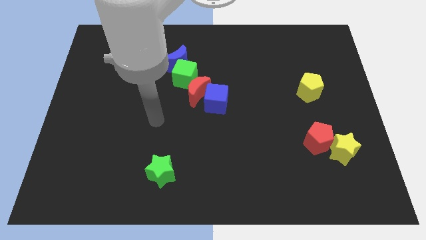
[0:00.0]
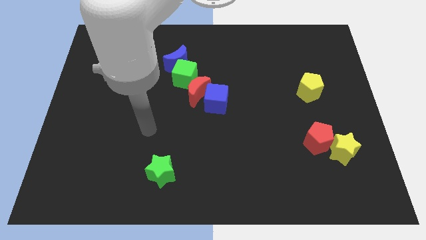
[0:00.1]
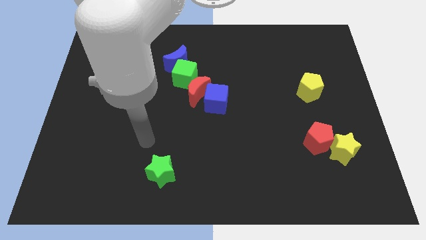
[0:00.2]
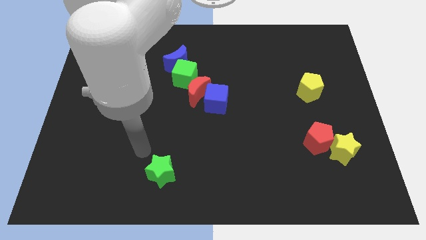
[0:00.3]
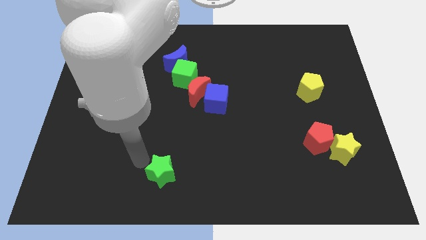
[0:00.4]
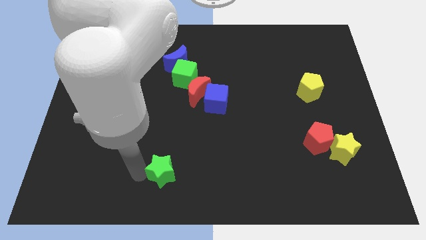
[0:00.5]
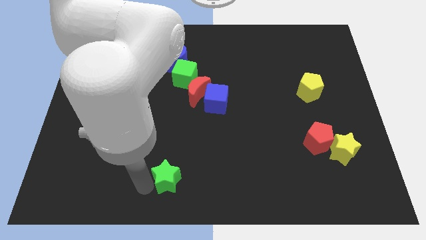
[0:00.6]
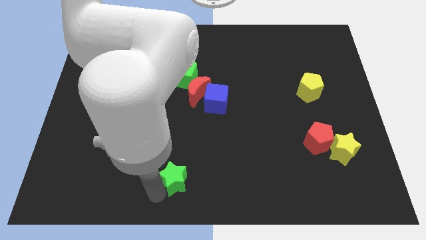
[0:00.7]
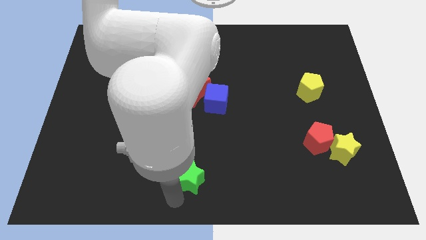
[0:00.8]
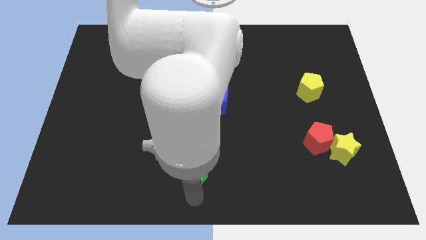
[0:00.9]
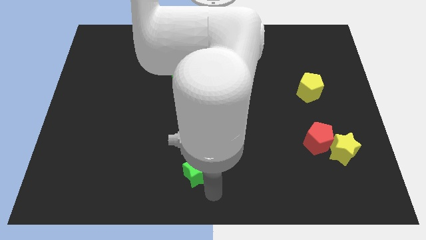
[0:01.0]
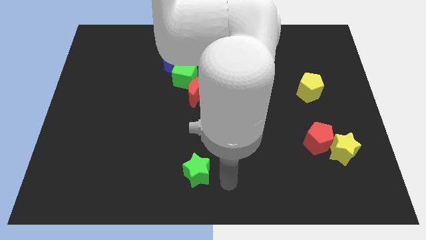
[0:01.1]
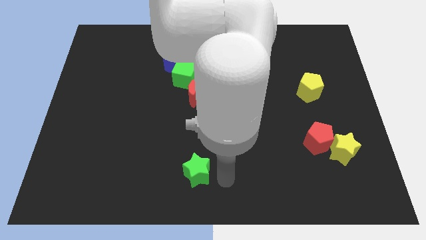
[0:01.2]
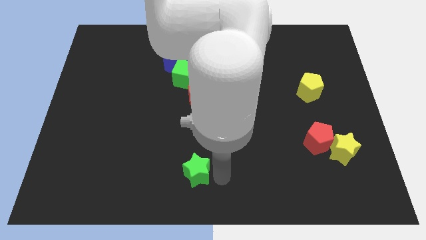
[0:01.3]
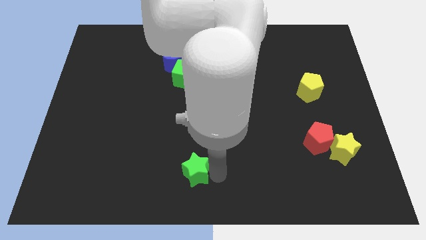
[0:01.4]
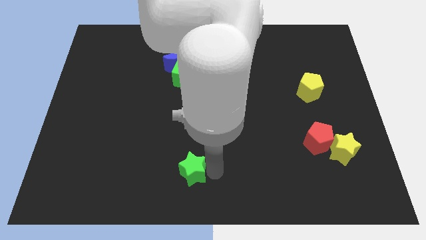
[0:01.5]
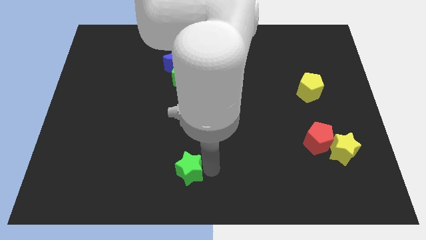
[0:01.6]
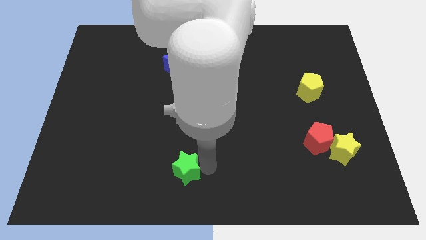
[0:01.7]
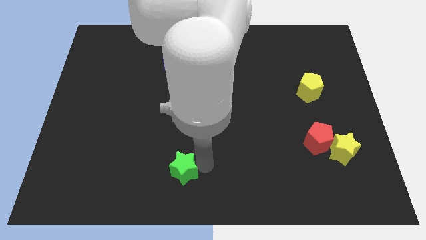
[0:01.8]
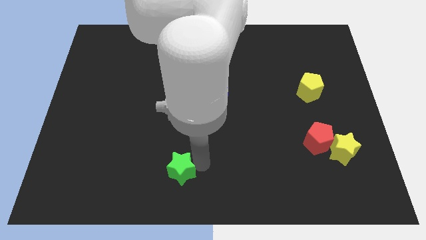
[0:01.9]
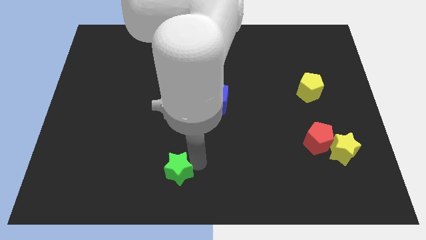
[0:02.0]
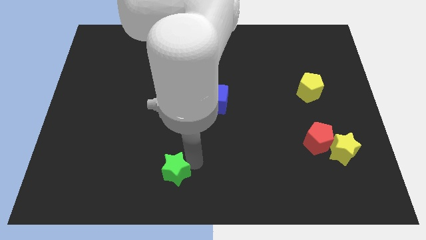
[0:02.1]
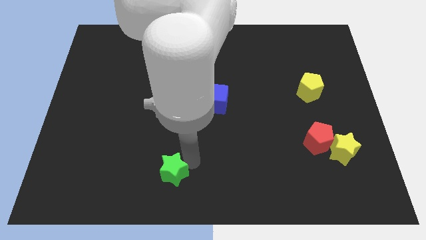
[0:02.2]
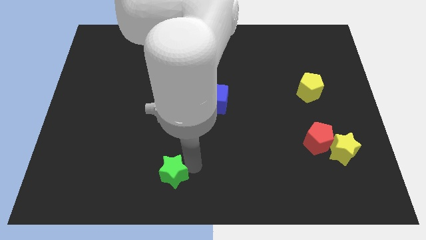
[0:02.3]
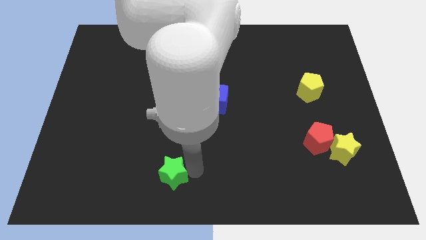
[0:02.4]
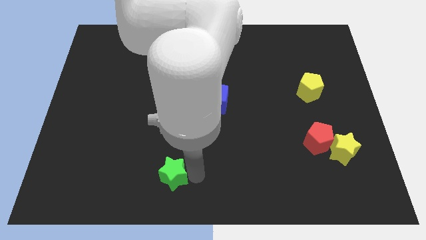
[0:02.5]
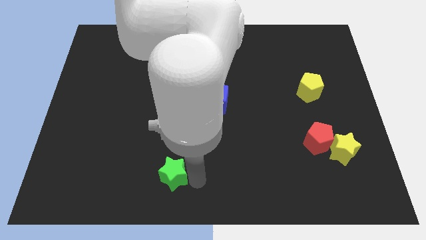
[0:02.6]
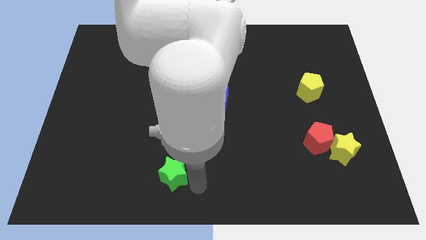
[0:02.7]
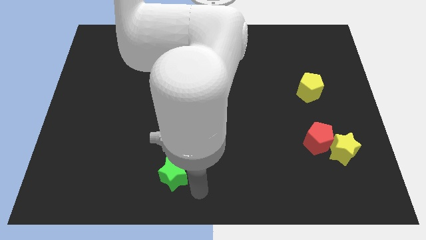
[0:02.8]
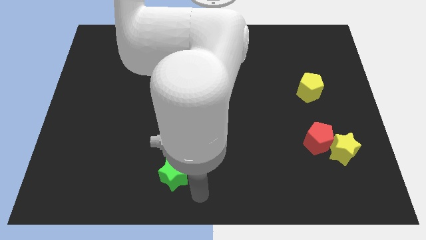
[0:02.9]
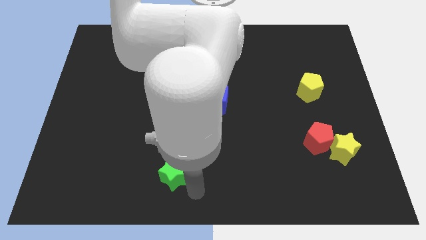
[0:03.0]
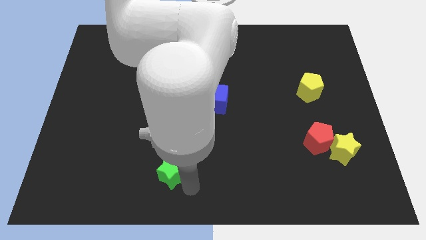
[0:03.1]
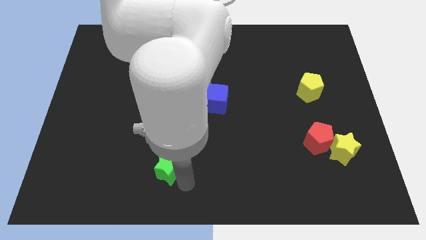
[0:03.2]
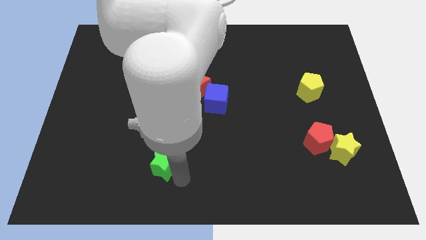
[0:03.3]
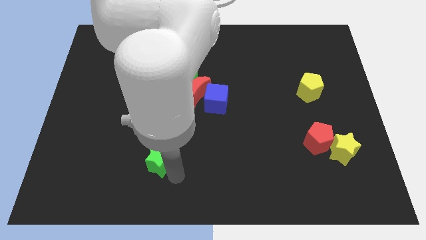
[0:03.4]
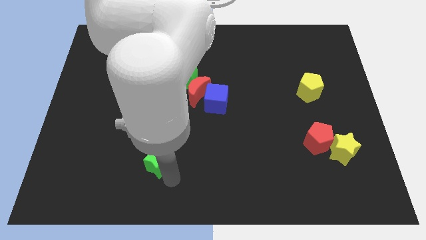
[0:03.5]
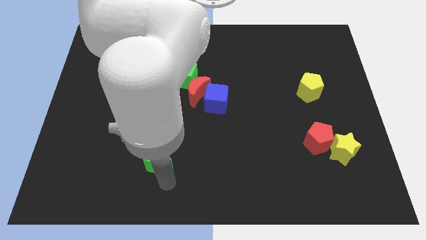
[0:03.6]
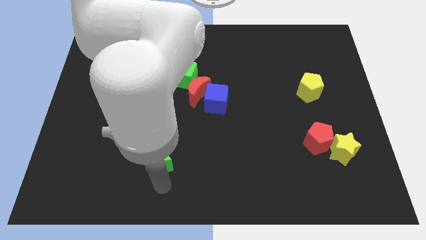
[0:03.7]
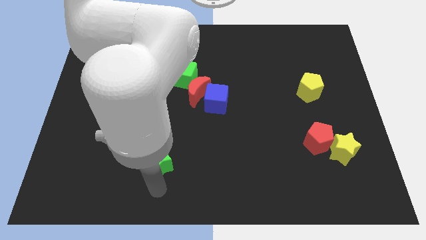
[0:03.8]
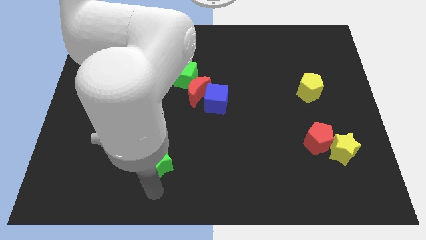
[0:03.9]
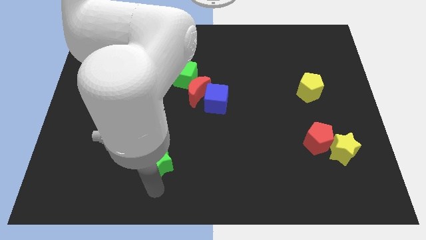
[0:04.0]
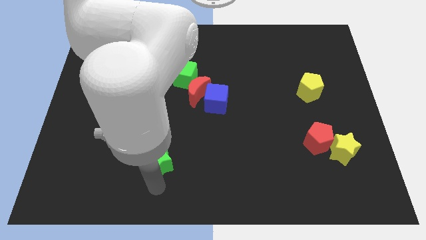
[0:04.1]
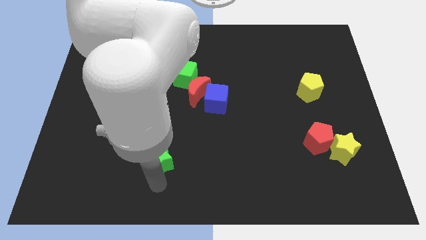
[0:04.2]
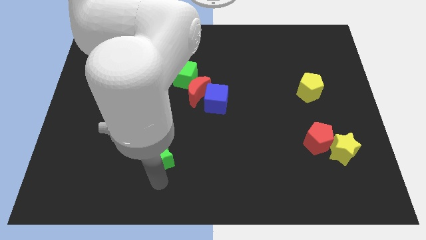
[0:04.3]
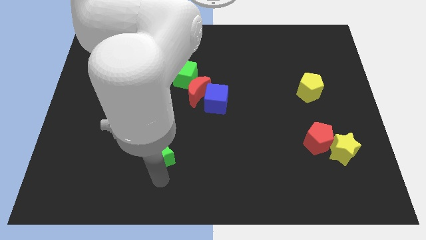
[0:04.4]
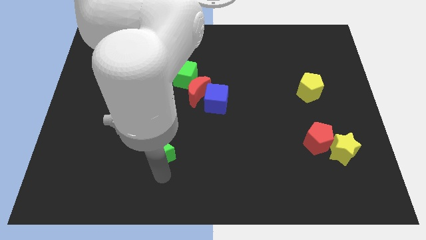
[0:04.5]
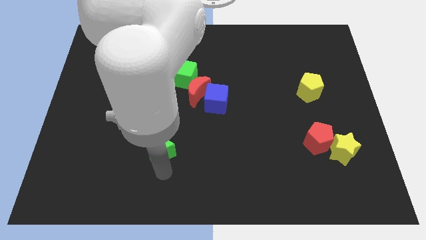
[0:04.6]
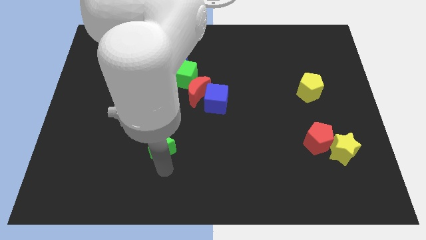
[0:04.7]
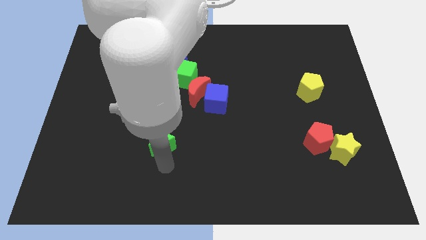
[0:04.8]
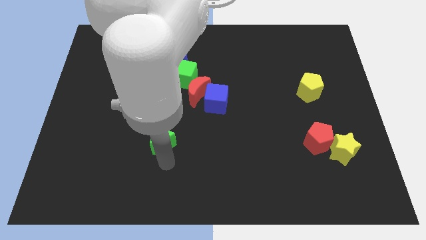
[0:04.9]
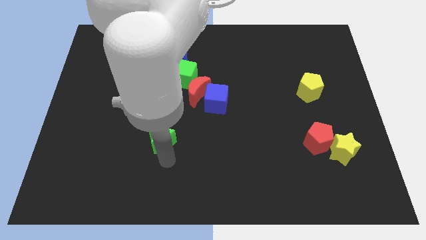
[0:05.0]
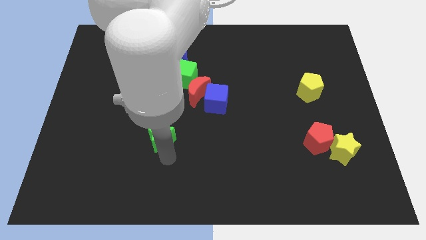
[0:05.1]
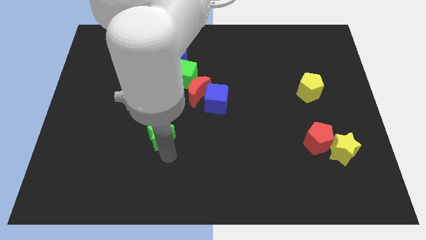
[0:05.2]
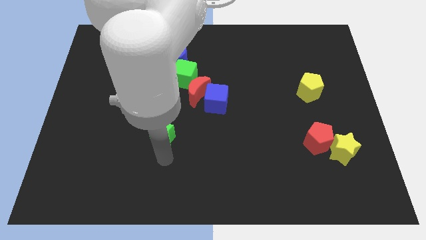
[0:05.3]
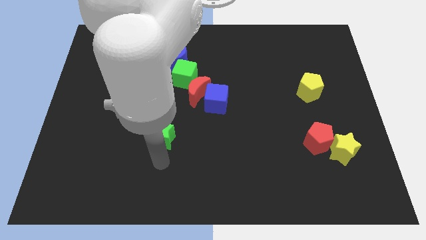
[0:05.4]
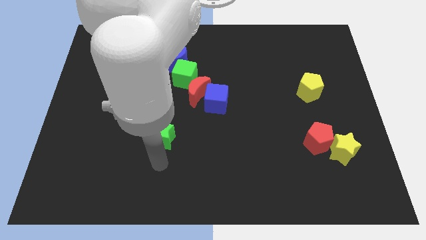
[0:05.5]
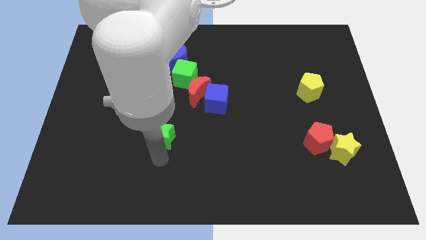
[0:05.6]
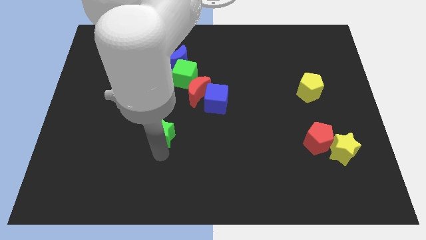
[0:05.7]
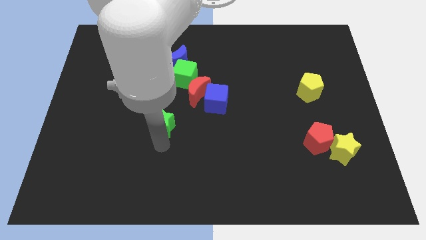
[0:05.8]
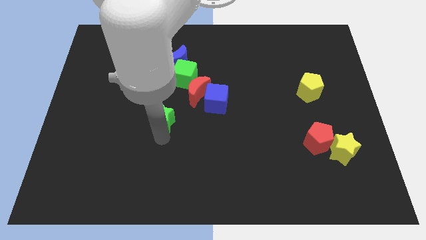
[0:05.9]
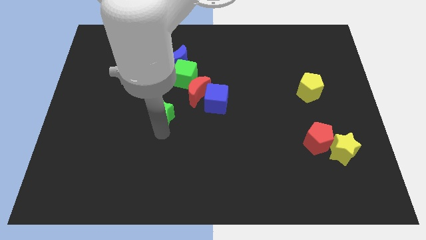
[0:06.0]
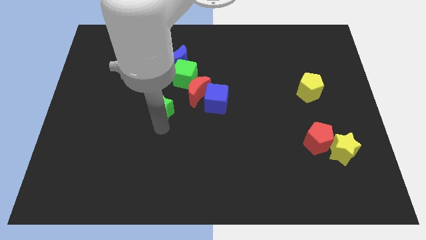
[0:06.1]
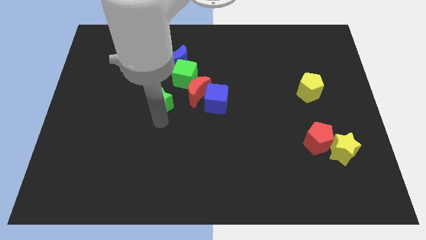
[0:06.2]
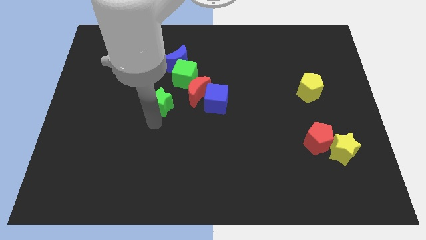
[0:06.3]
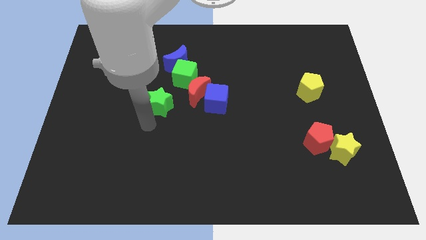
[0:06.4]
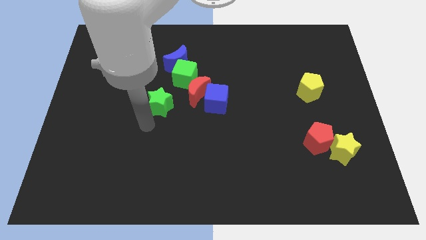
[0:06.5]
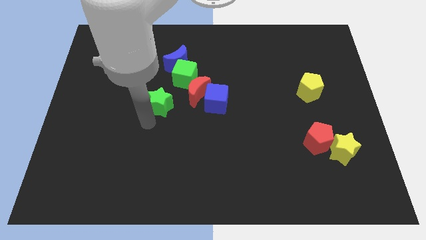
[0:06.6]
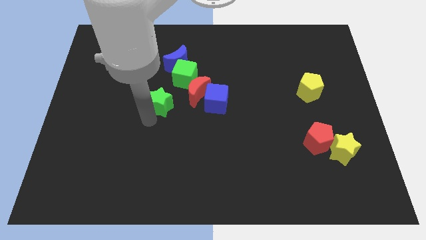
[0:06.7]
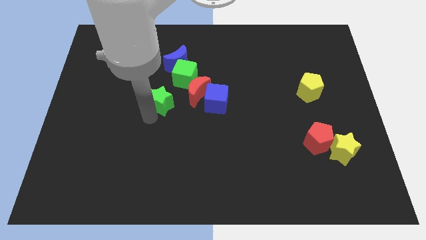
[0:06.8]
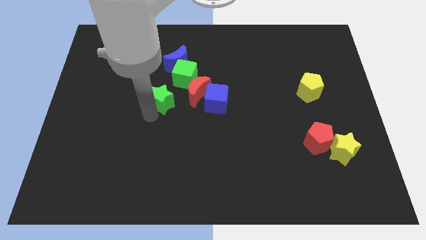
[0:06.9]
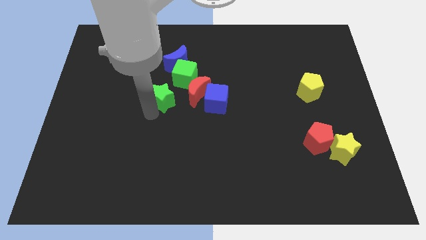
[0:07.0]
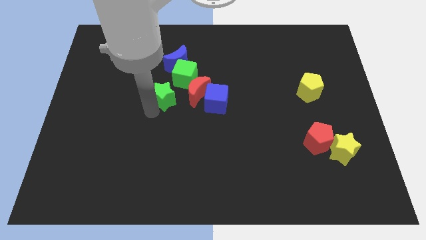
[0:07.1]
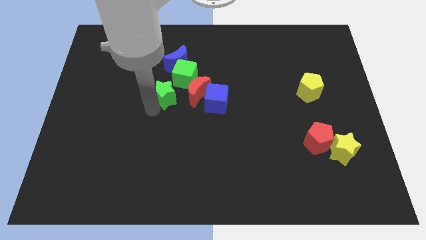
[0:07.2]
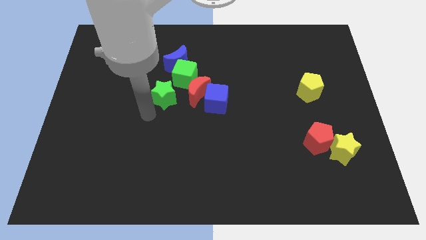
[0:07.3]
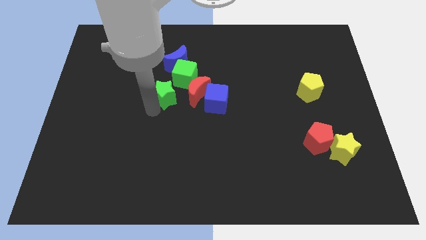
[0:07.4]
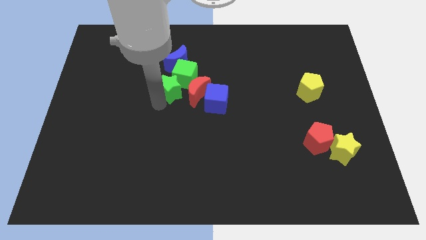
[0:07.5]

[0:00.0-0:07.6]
move the green star towards the green cube
